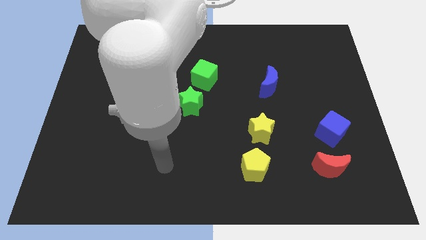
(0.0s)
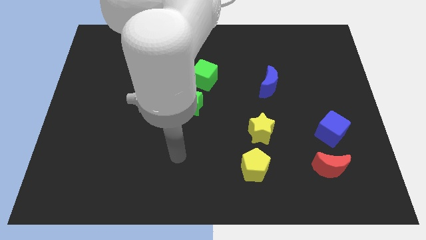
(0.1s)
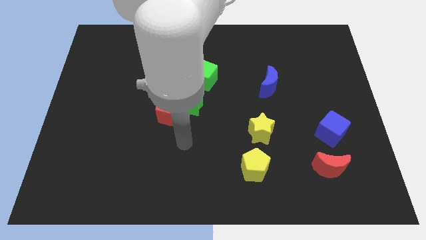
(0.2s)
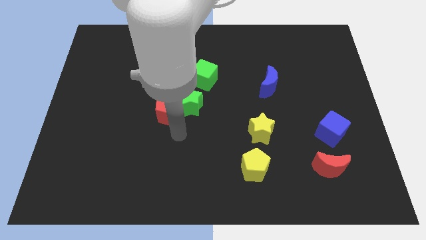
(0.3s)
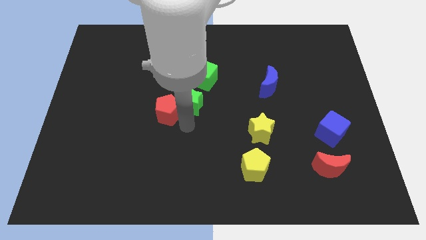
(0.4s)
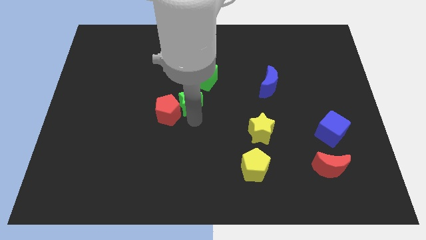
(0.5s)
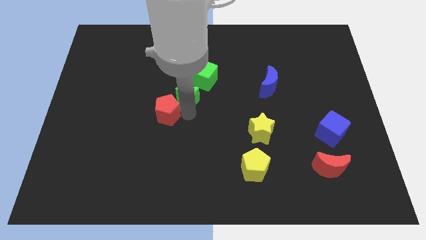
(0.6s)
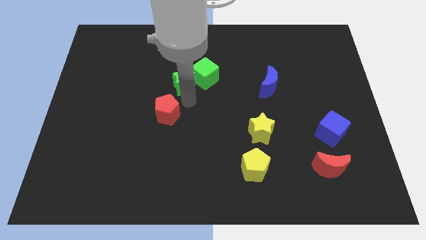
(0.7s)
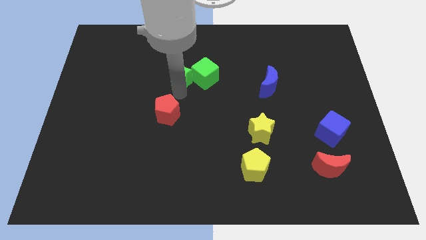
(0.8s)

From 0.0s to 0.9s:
pull the red pentagon apart from the green star

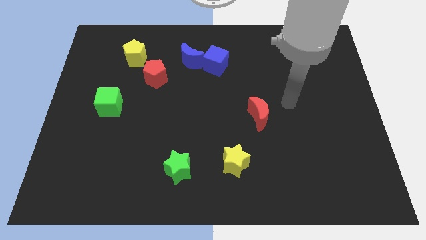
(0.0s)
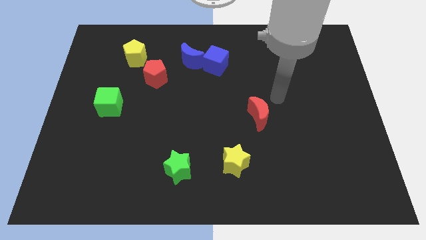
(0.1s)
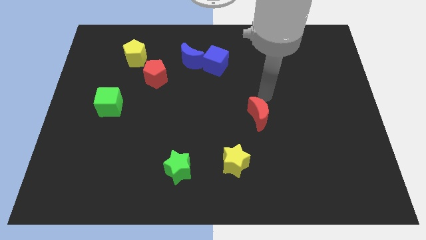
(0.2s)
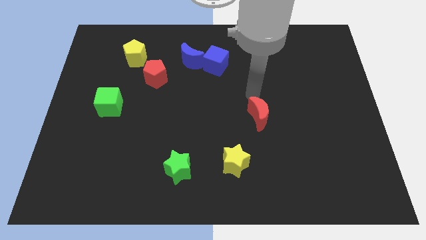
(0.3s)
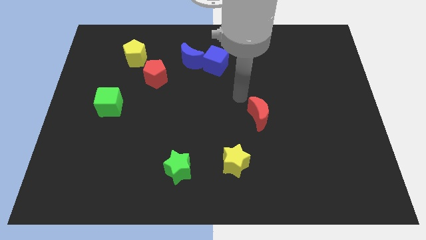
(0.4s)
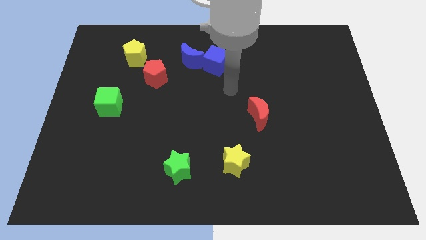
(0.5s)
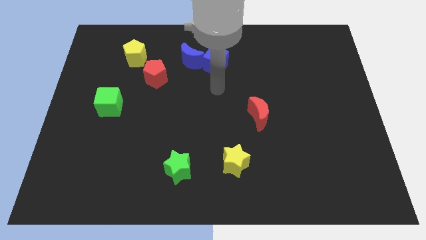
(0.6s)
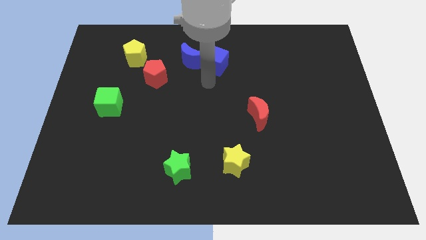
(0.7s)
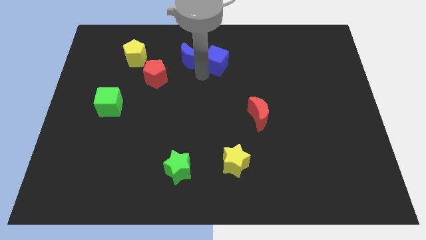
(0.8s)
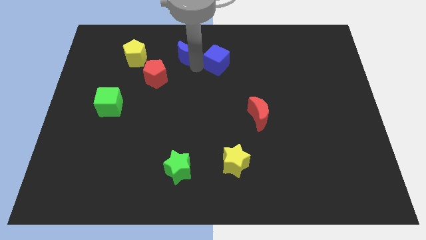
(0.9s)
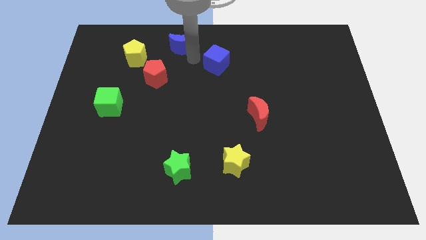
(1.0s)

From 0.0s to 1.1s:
pull the blue cube apart from the blue moon

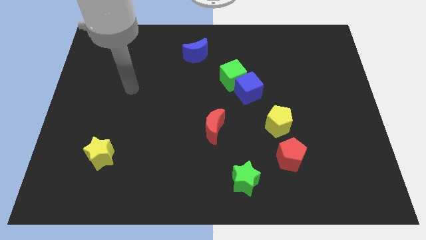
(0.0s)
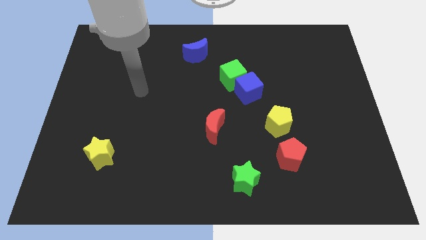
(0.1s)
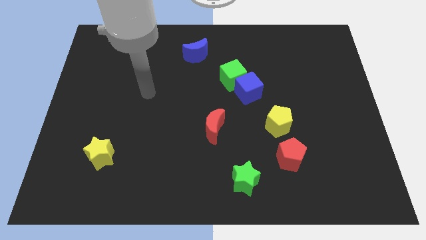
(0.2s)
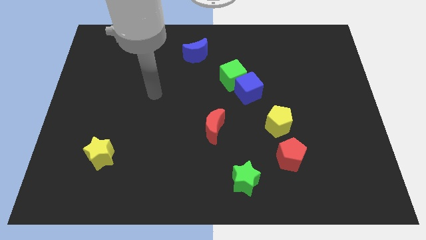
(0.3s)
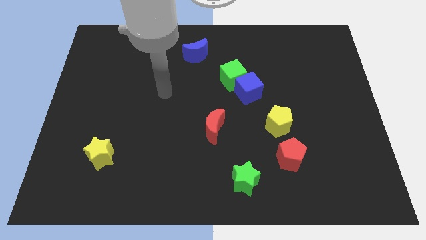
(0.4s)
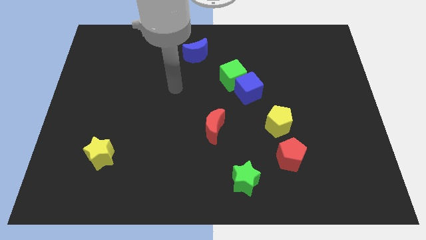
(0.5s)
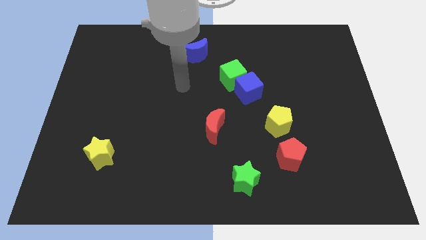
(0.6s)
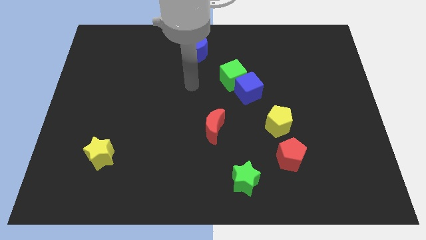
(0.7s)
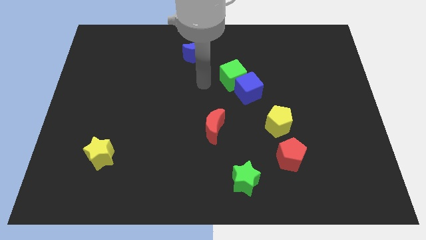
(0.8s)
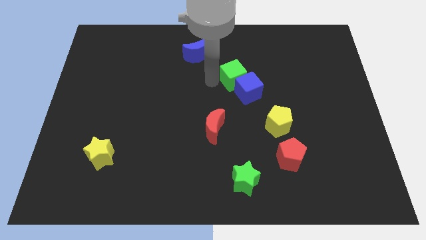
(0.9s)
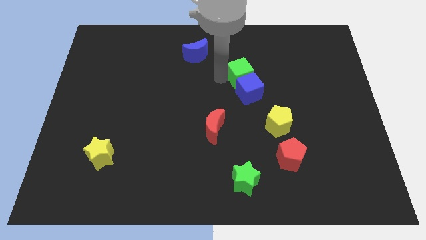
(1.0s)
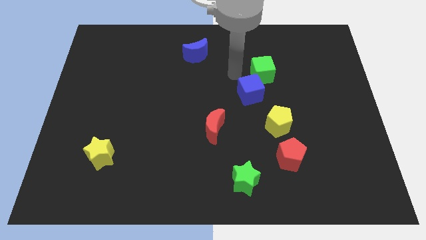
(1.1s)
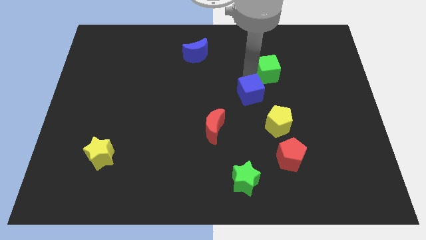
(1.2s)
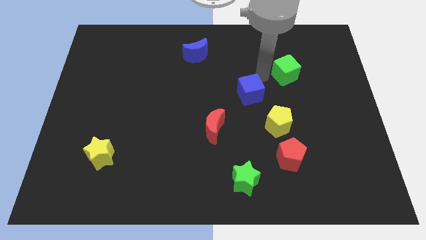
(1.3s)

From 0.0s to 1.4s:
move the blue cube away from the green cube

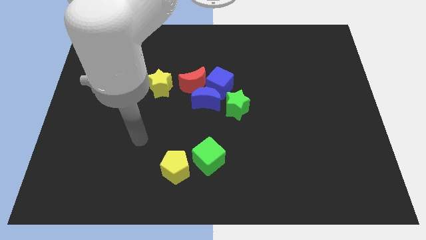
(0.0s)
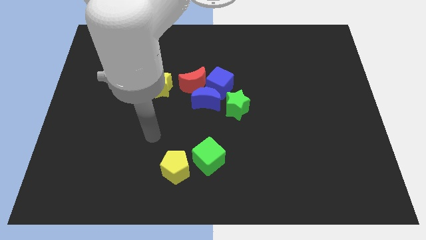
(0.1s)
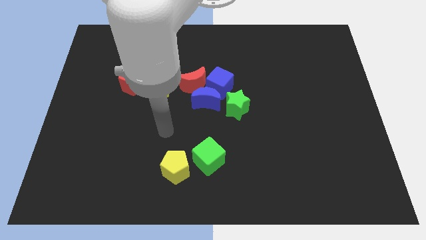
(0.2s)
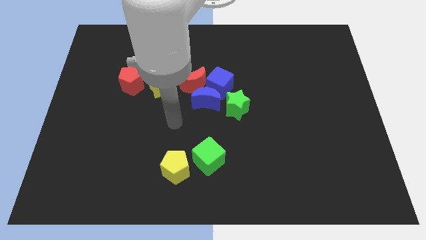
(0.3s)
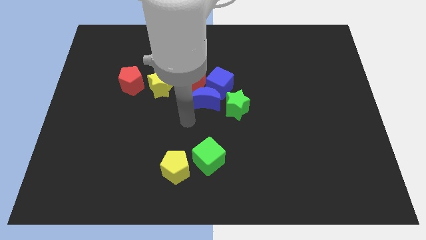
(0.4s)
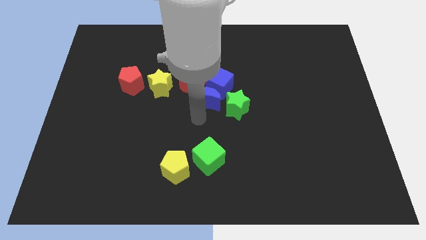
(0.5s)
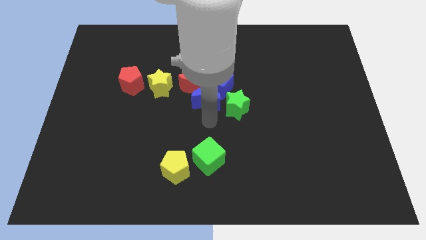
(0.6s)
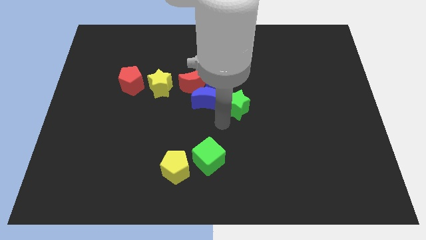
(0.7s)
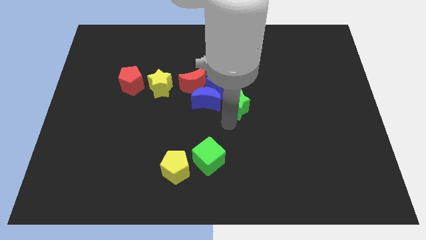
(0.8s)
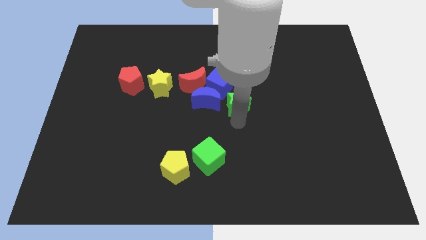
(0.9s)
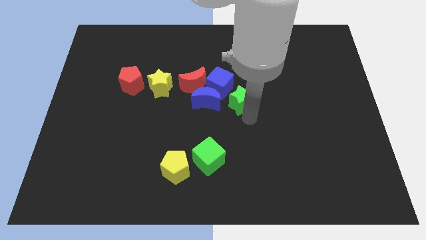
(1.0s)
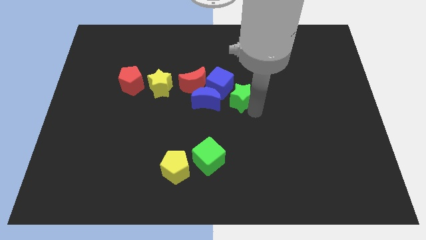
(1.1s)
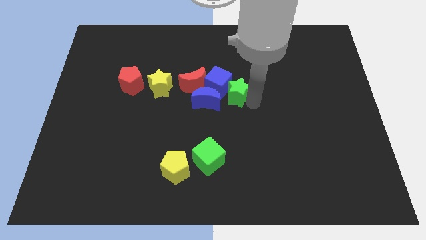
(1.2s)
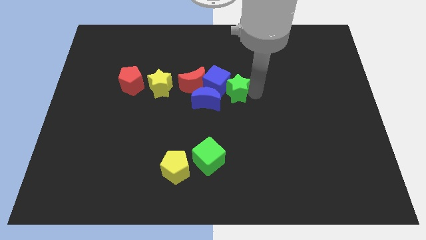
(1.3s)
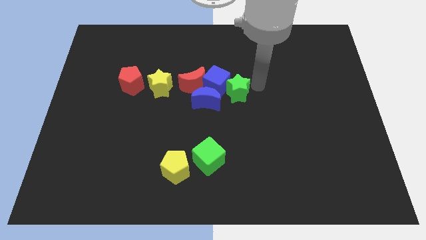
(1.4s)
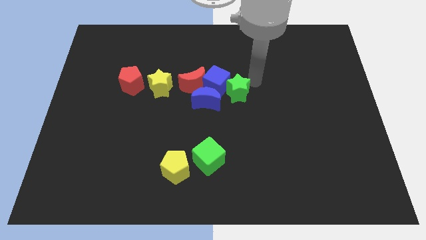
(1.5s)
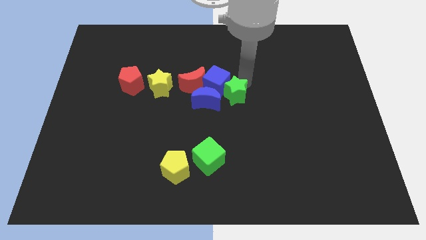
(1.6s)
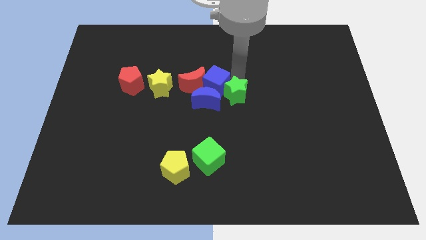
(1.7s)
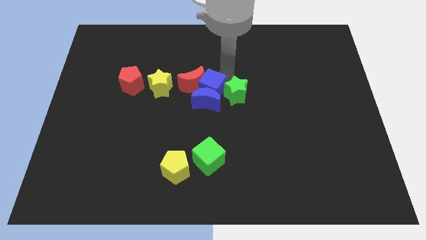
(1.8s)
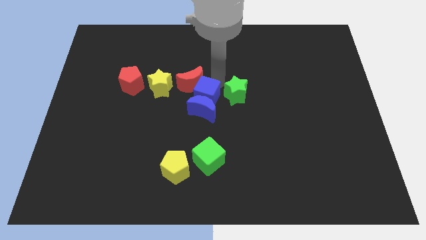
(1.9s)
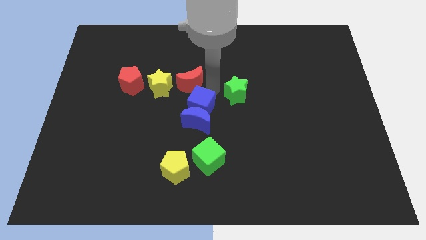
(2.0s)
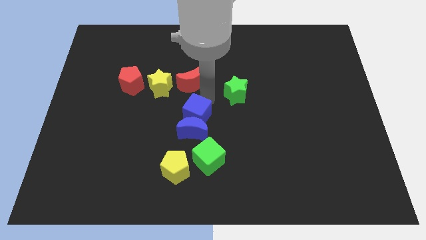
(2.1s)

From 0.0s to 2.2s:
pull the blue moon apart from the group of blocks

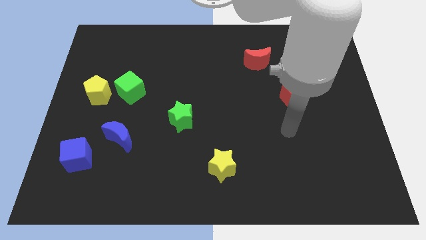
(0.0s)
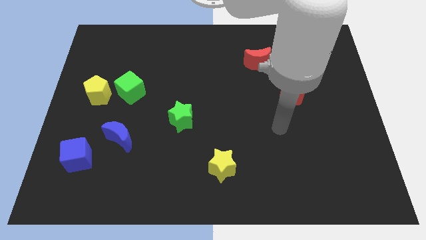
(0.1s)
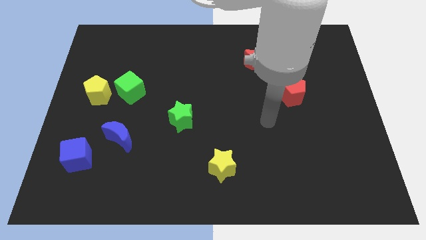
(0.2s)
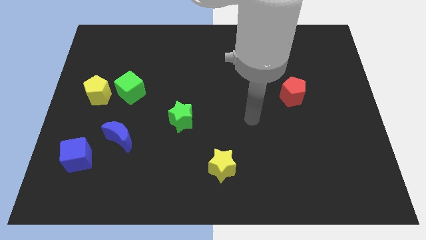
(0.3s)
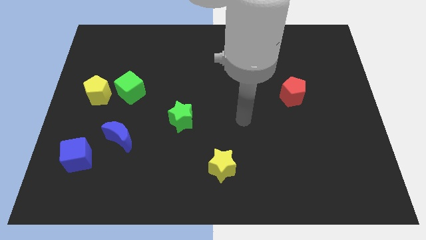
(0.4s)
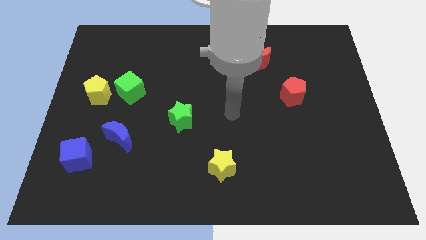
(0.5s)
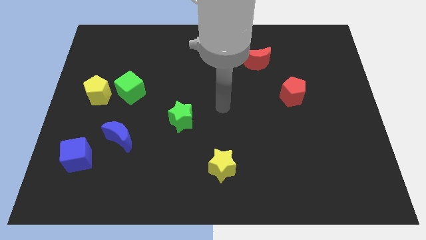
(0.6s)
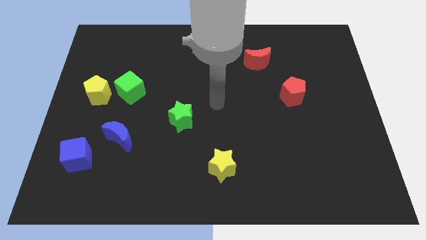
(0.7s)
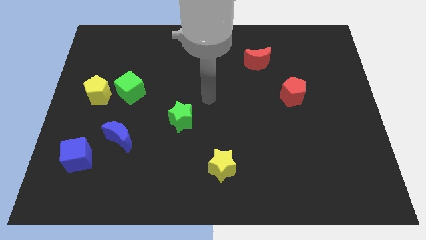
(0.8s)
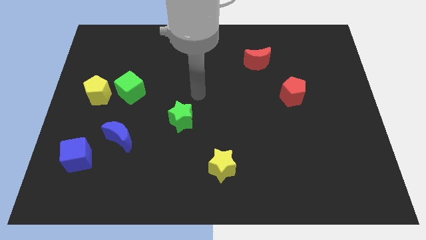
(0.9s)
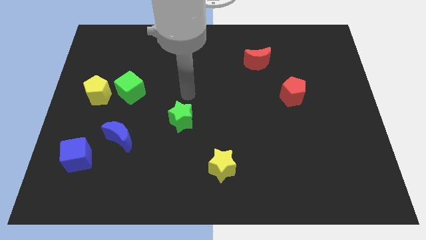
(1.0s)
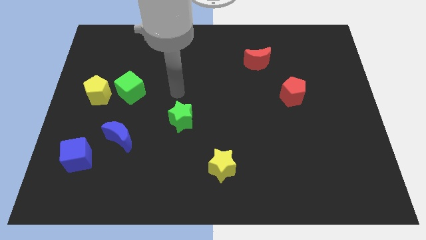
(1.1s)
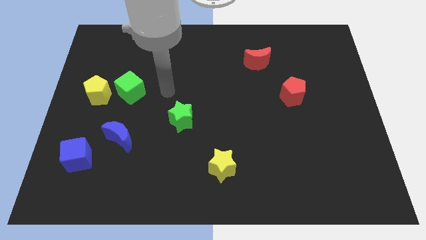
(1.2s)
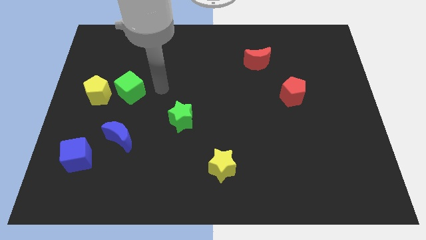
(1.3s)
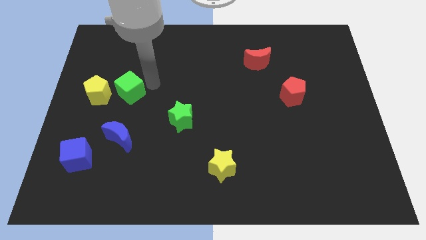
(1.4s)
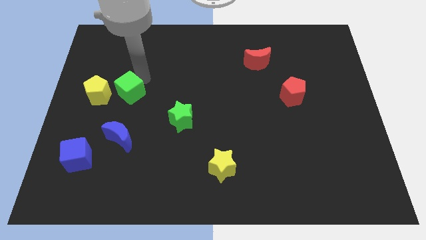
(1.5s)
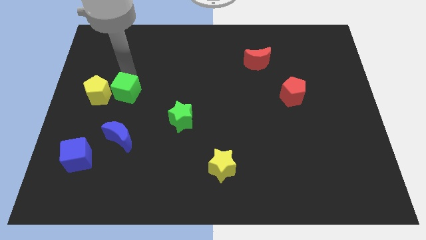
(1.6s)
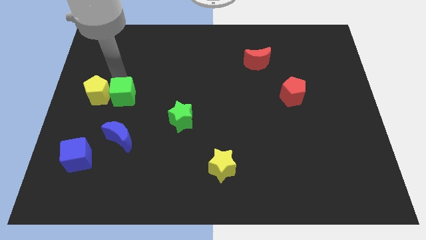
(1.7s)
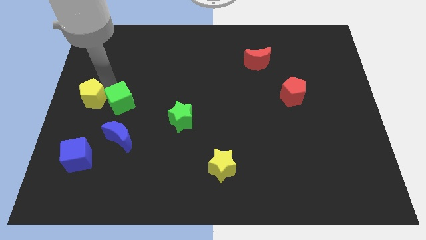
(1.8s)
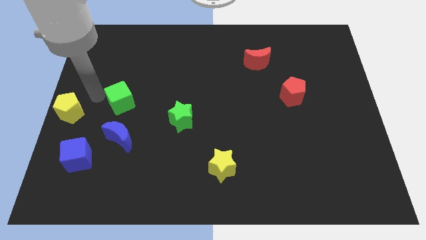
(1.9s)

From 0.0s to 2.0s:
move the green cube away from the yellow pentagon

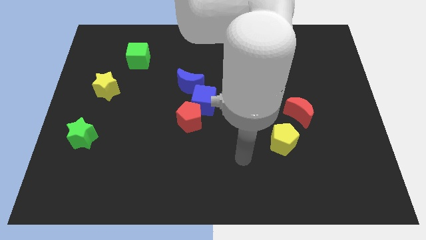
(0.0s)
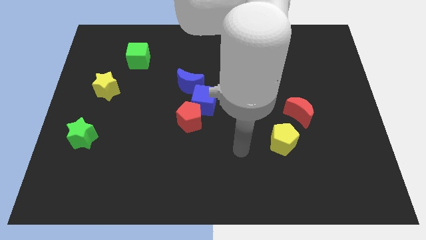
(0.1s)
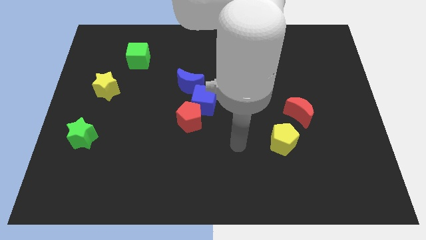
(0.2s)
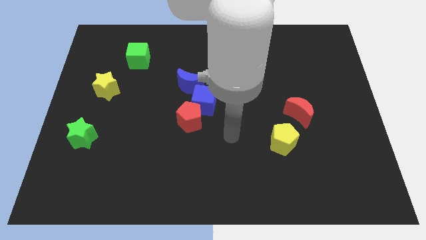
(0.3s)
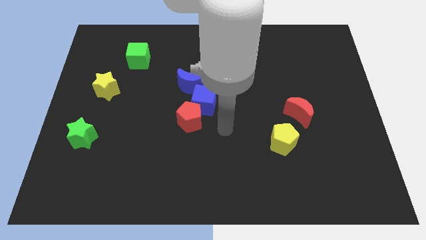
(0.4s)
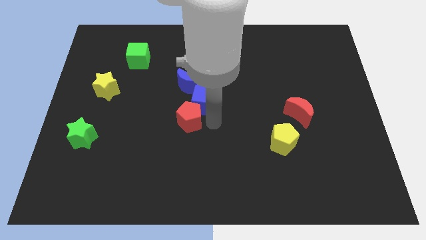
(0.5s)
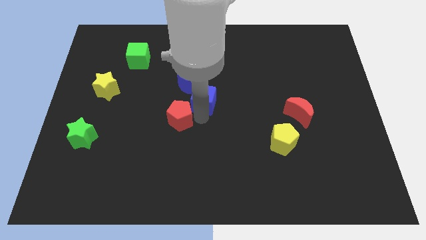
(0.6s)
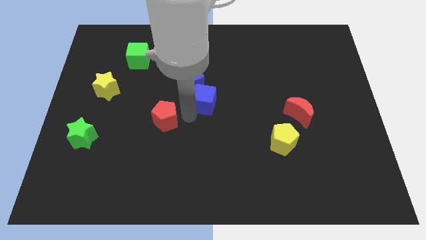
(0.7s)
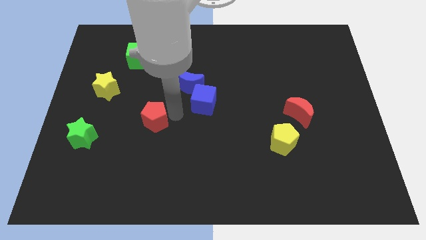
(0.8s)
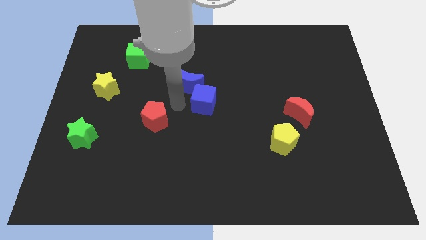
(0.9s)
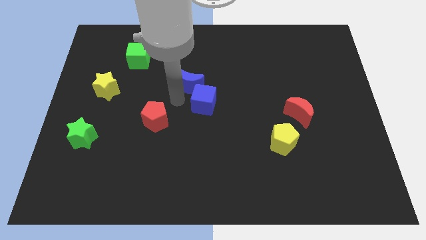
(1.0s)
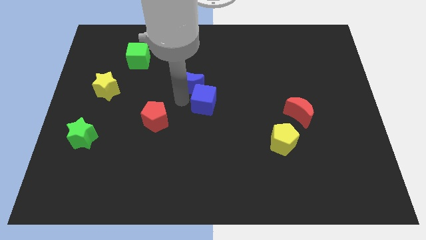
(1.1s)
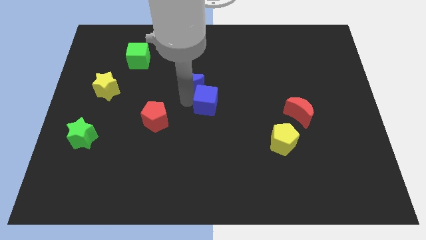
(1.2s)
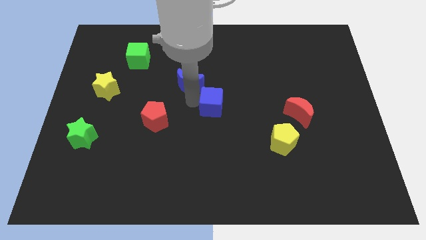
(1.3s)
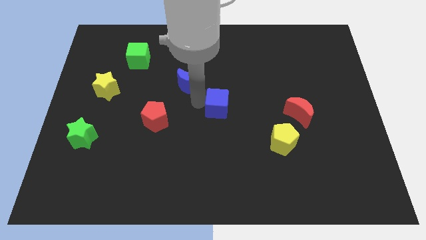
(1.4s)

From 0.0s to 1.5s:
separate the blue cube from the red pentagon and blue moon

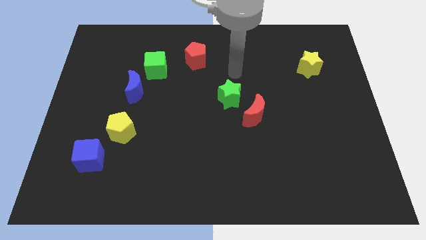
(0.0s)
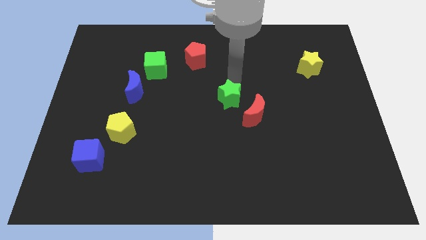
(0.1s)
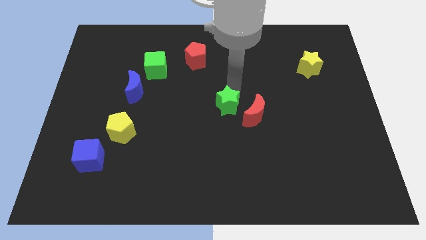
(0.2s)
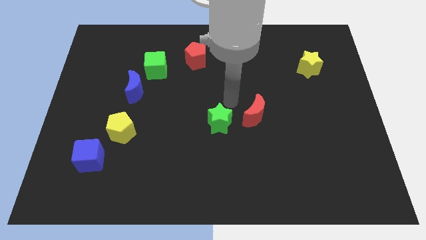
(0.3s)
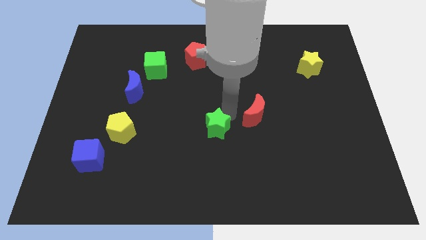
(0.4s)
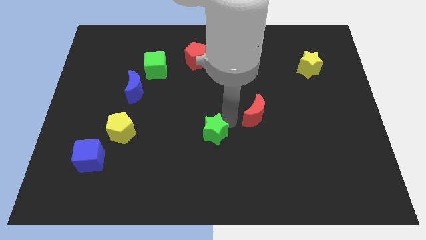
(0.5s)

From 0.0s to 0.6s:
move the red moon away from the green star
